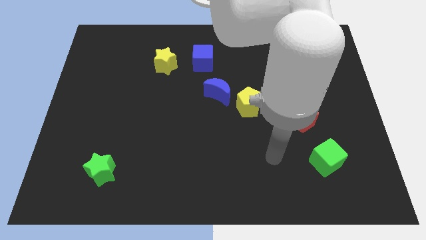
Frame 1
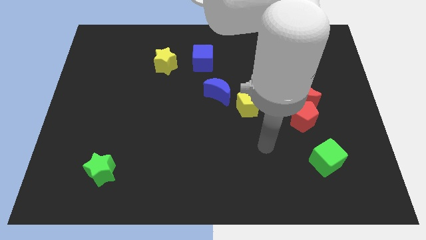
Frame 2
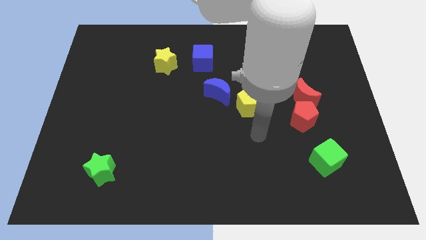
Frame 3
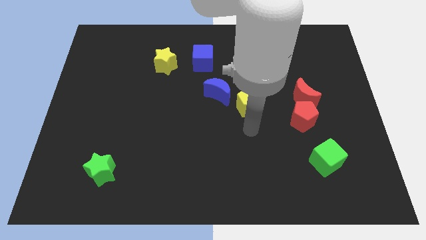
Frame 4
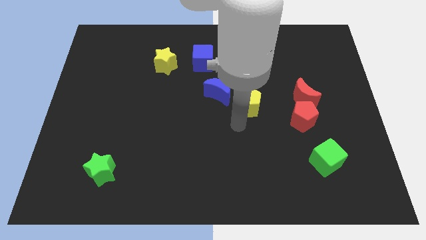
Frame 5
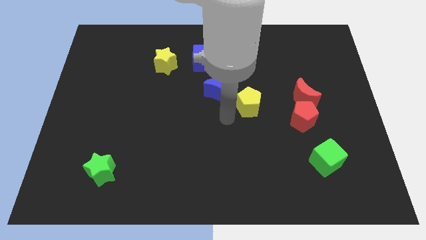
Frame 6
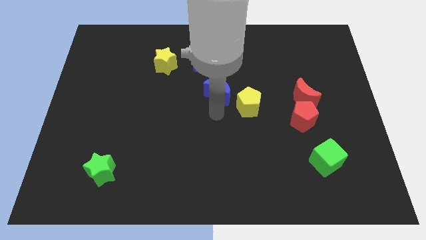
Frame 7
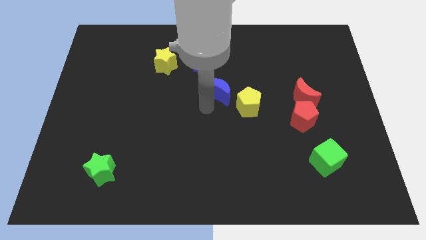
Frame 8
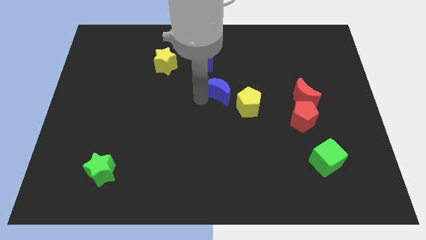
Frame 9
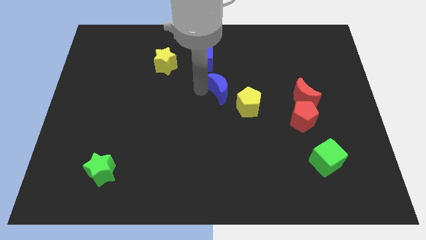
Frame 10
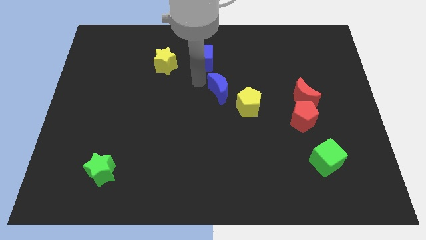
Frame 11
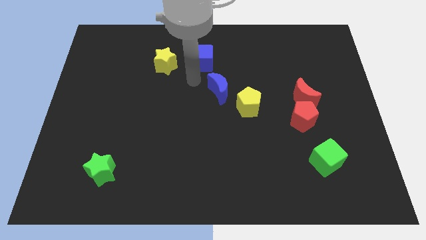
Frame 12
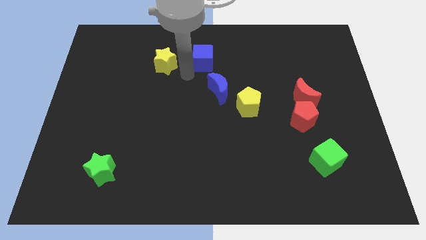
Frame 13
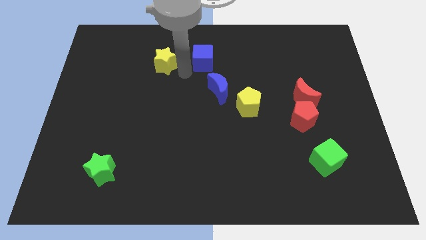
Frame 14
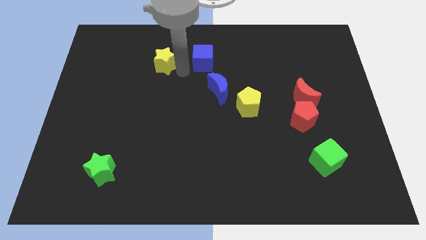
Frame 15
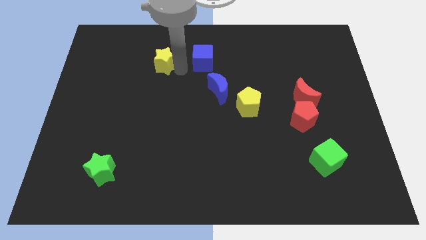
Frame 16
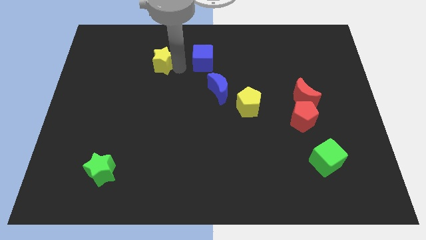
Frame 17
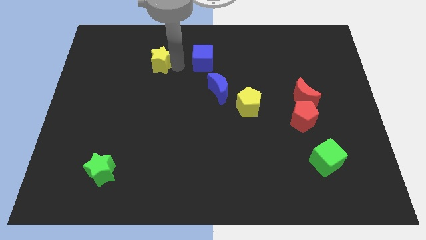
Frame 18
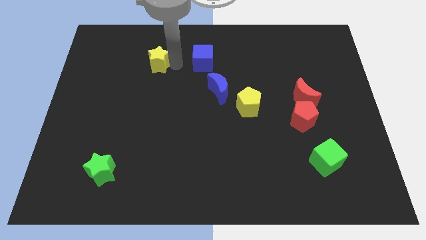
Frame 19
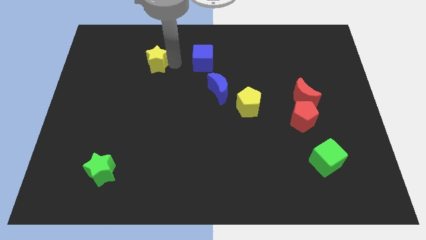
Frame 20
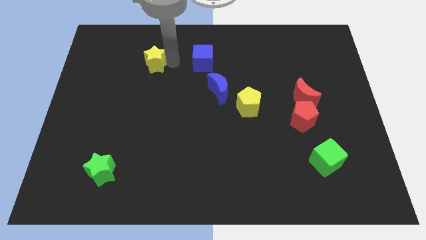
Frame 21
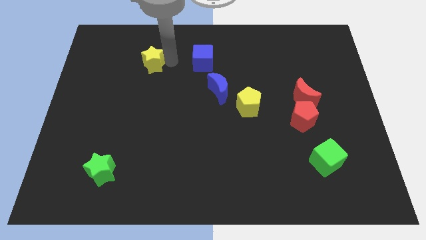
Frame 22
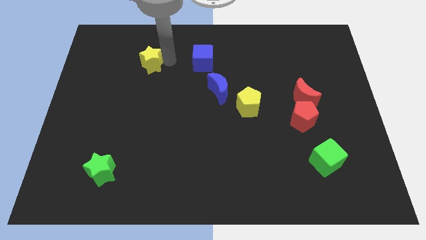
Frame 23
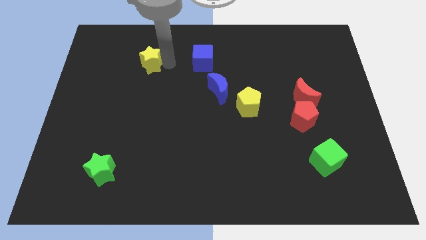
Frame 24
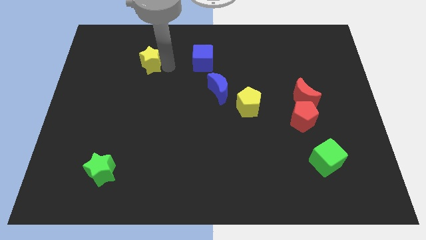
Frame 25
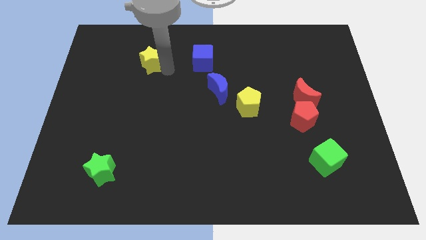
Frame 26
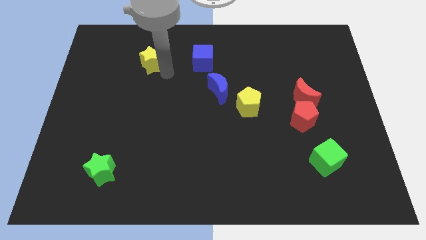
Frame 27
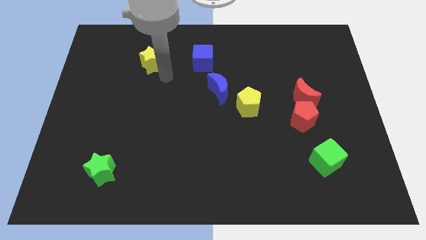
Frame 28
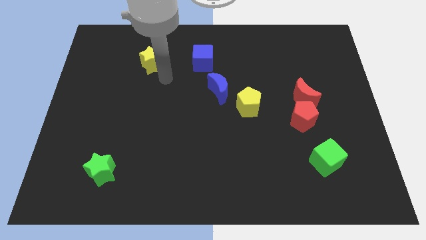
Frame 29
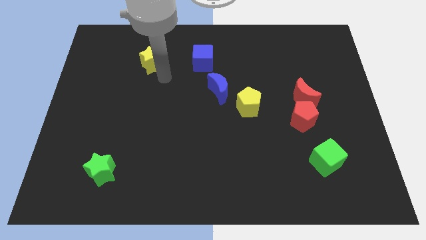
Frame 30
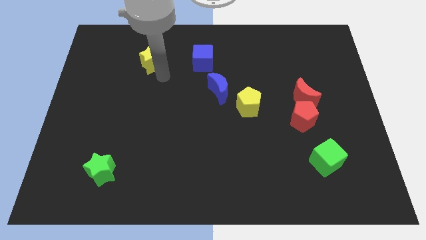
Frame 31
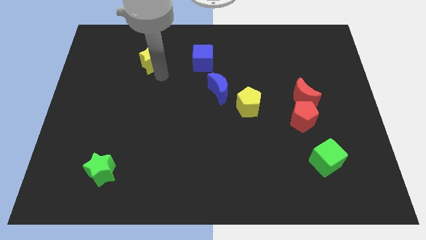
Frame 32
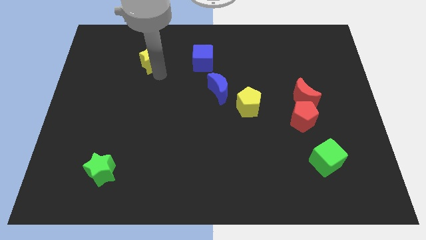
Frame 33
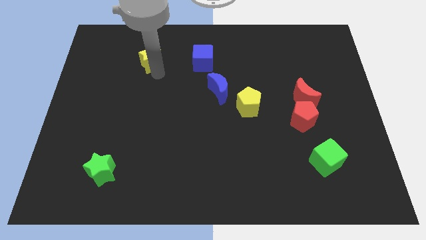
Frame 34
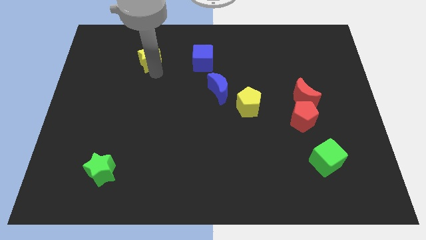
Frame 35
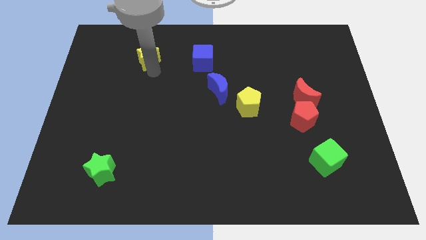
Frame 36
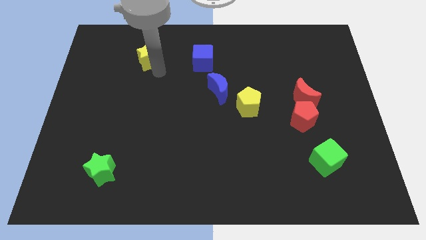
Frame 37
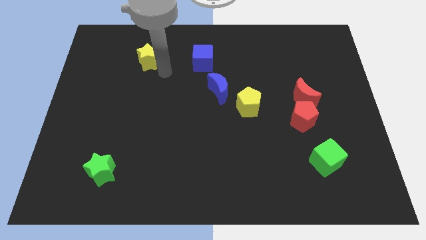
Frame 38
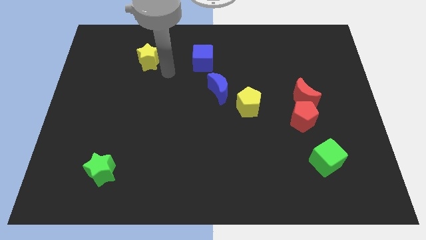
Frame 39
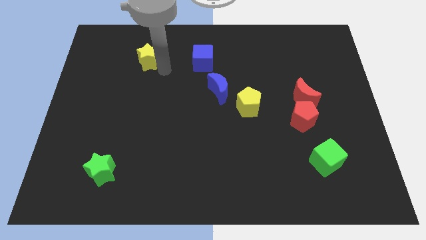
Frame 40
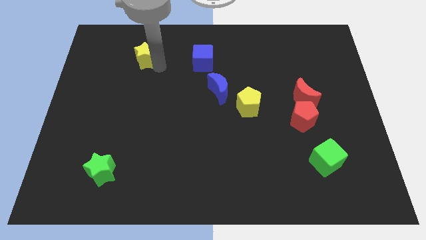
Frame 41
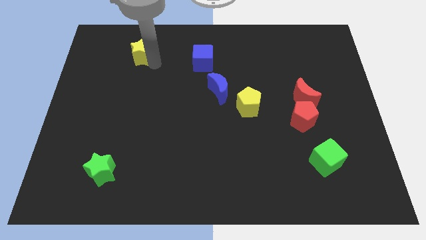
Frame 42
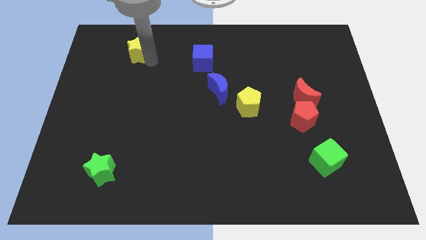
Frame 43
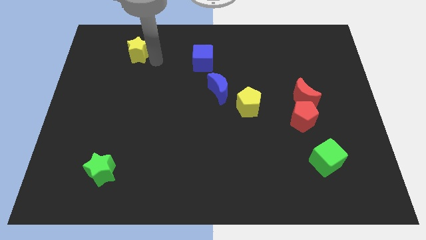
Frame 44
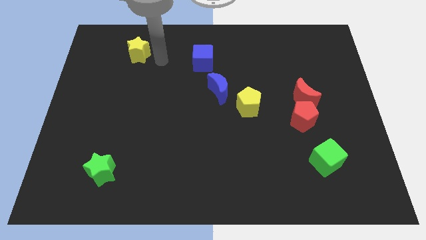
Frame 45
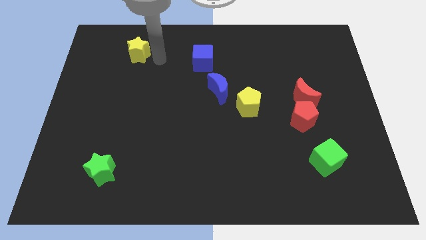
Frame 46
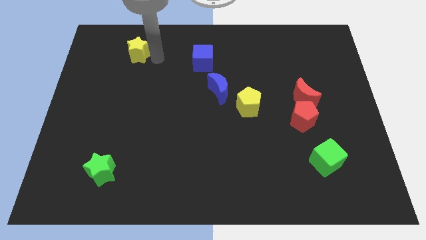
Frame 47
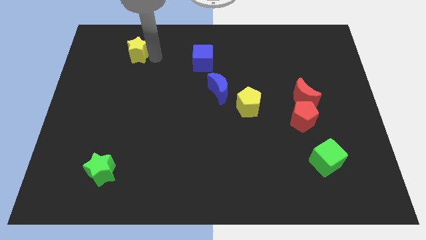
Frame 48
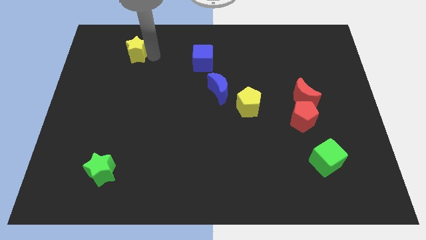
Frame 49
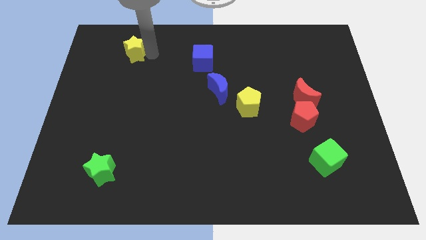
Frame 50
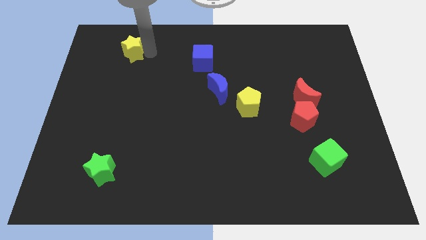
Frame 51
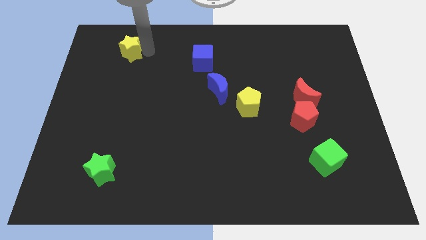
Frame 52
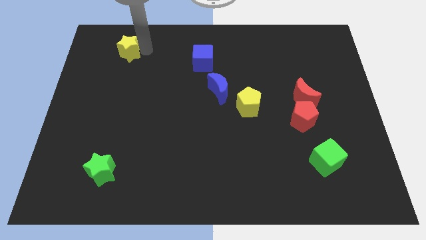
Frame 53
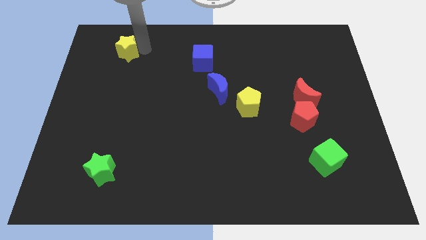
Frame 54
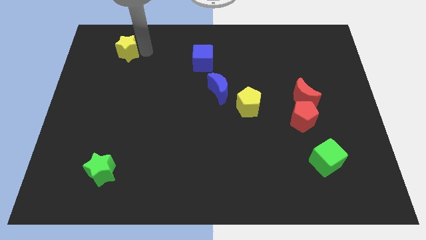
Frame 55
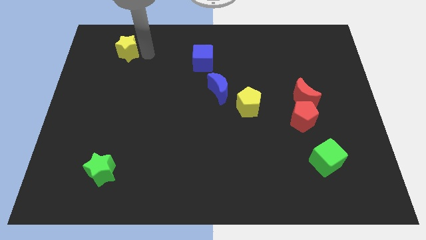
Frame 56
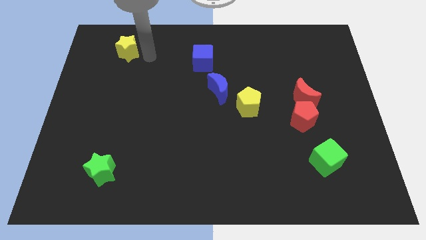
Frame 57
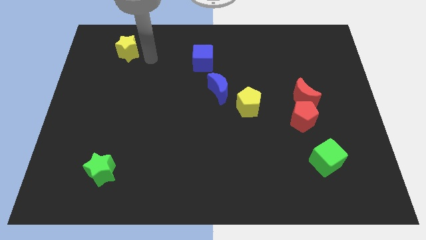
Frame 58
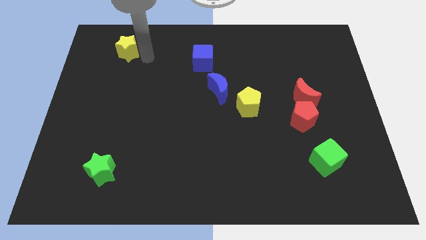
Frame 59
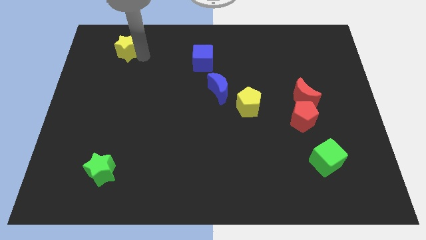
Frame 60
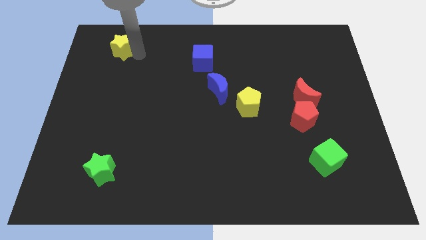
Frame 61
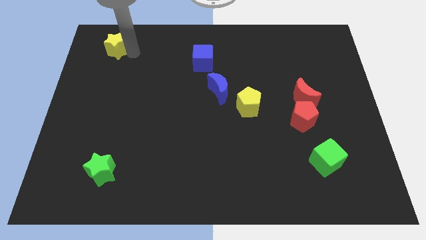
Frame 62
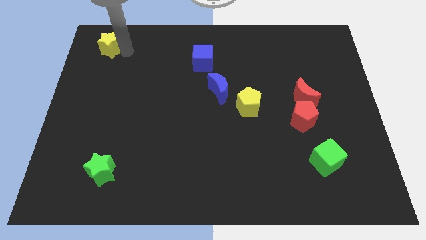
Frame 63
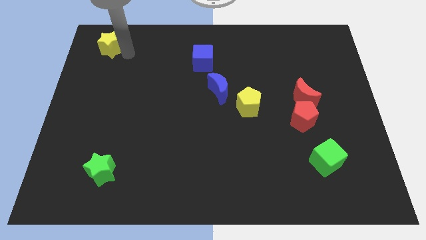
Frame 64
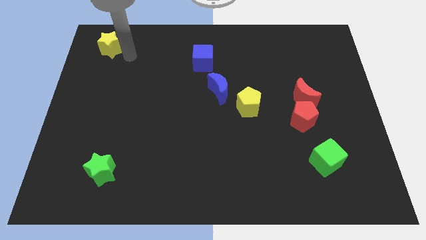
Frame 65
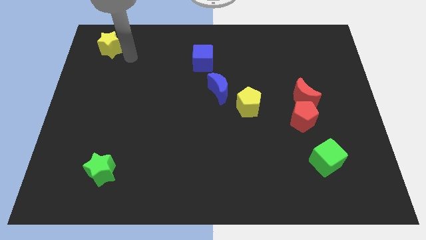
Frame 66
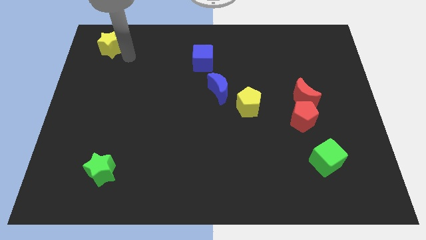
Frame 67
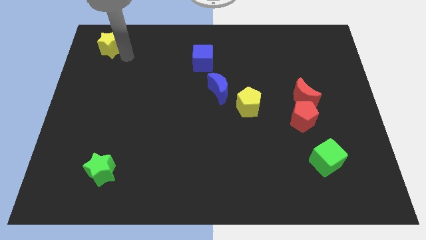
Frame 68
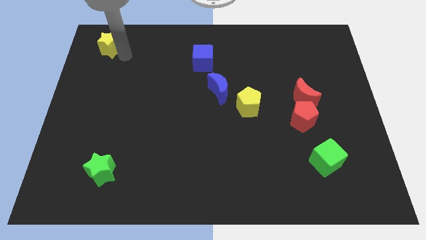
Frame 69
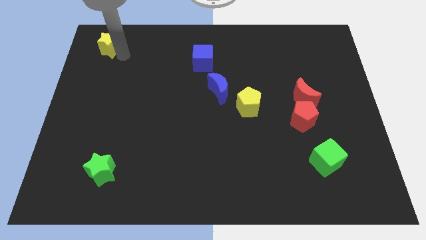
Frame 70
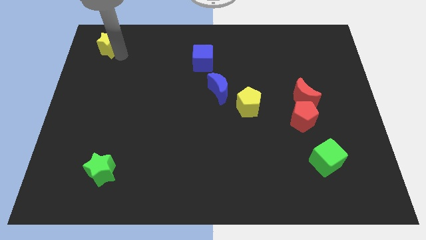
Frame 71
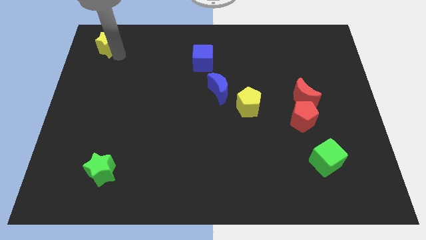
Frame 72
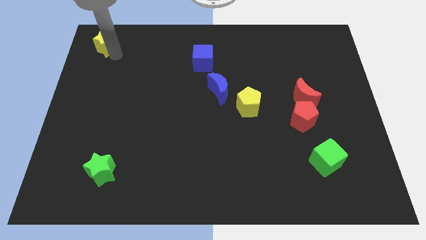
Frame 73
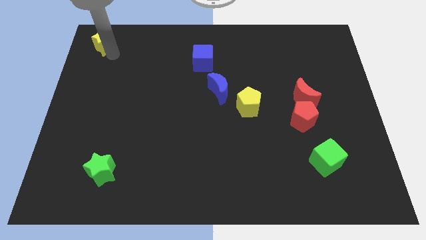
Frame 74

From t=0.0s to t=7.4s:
move the yellow star to the top left of the board
